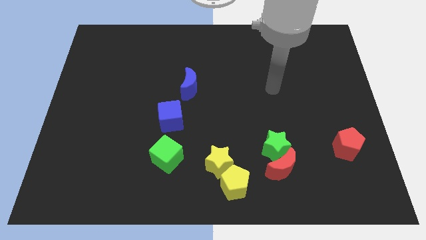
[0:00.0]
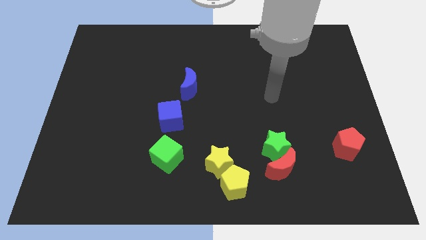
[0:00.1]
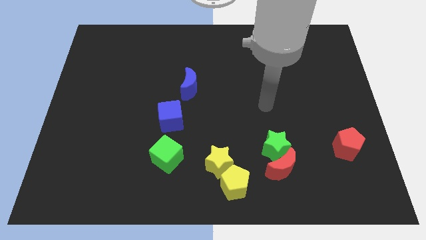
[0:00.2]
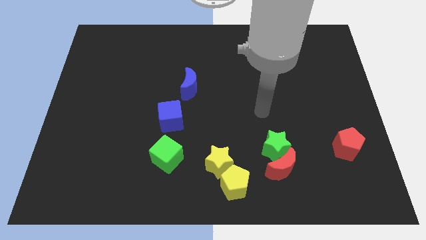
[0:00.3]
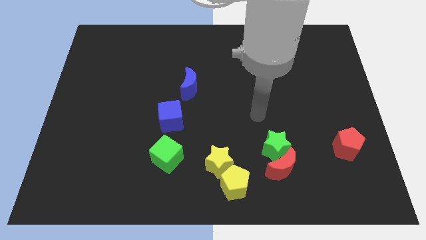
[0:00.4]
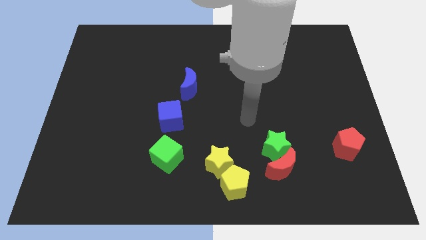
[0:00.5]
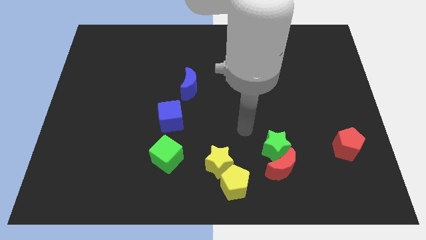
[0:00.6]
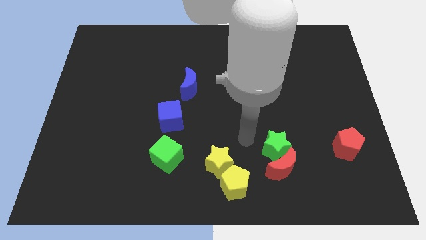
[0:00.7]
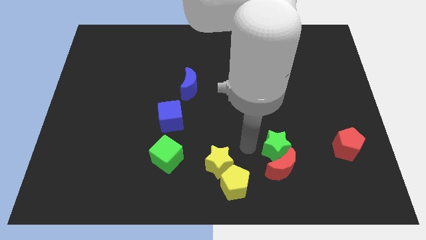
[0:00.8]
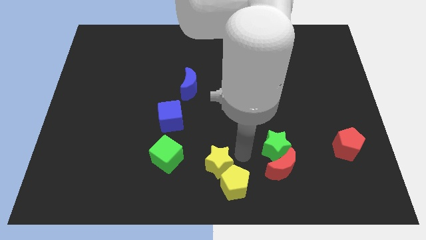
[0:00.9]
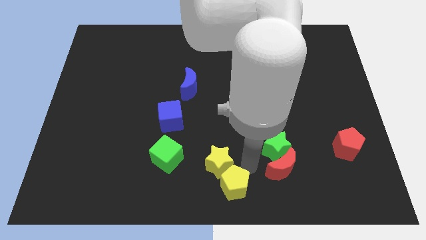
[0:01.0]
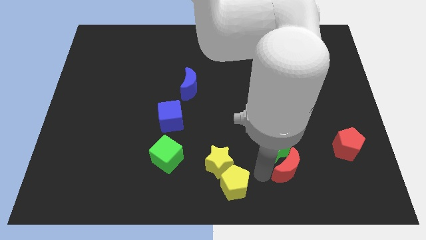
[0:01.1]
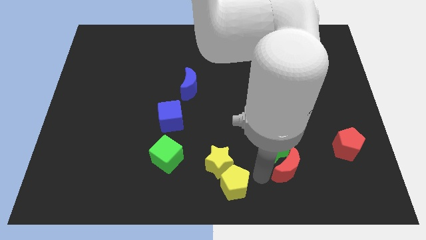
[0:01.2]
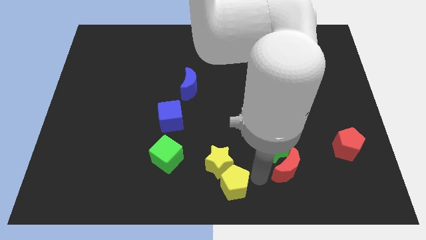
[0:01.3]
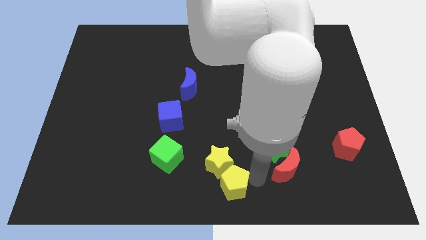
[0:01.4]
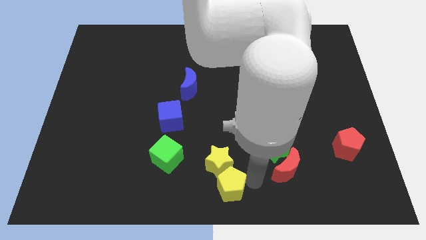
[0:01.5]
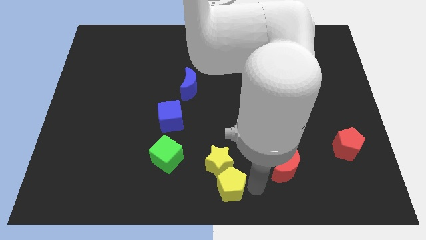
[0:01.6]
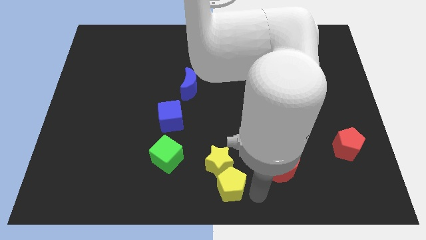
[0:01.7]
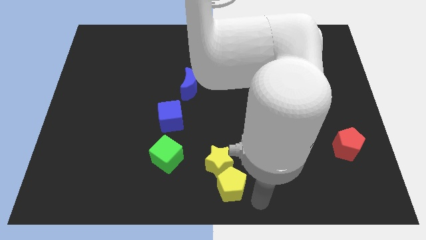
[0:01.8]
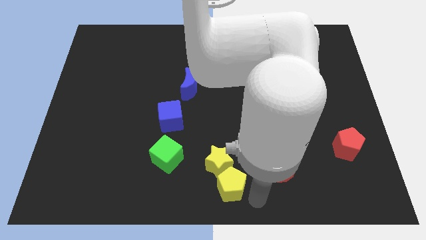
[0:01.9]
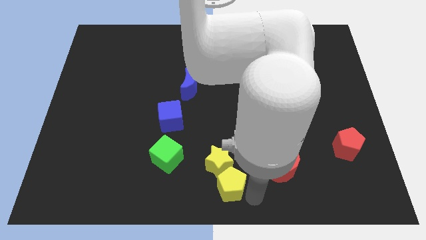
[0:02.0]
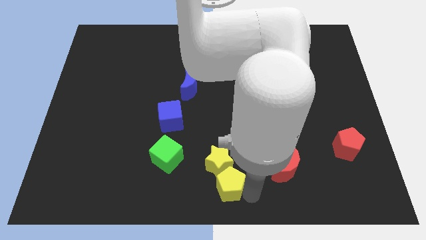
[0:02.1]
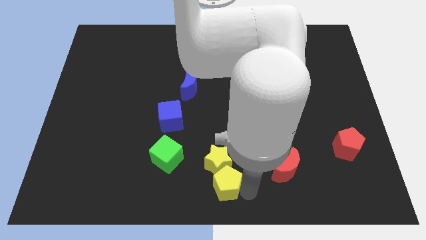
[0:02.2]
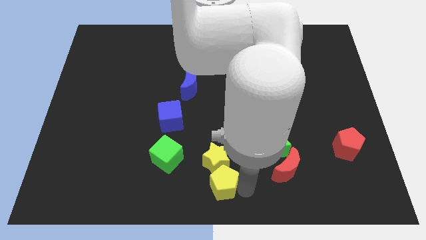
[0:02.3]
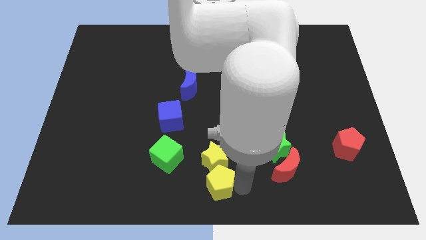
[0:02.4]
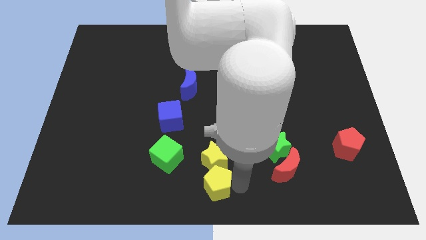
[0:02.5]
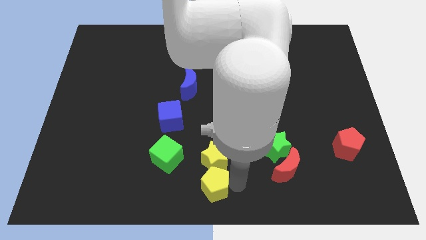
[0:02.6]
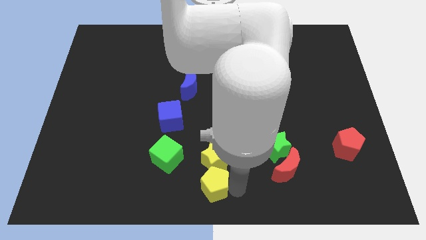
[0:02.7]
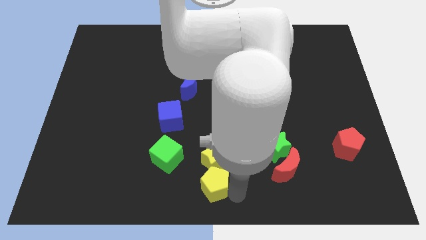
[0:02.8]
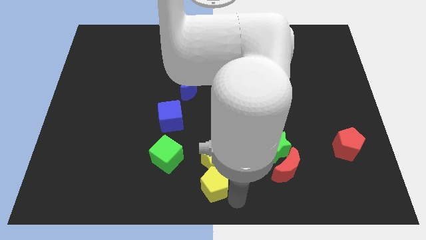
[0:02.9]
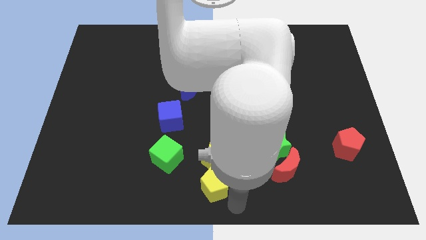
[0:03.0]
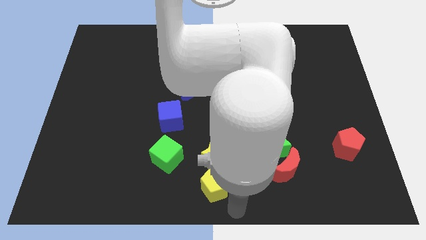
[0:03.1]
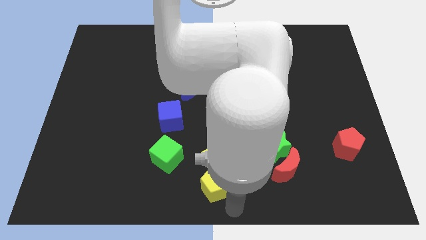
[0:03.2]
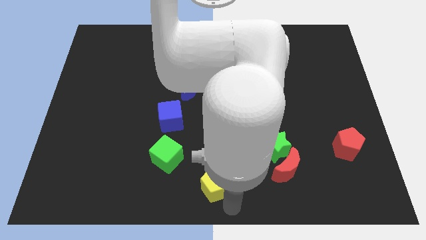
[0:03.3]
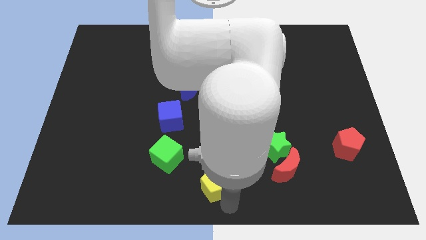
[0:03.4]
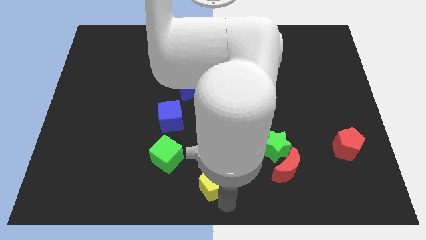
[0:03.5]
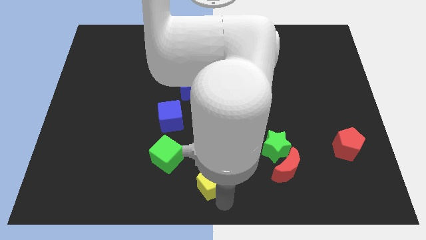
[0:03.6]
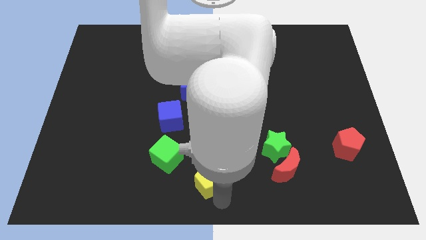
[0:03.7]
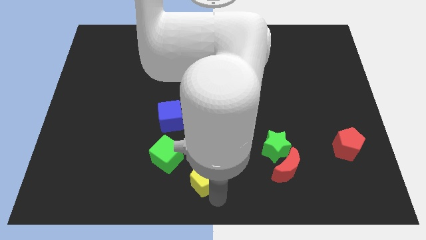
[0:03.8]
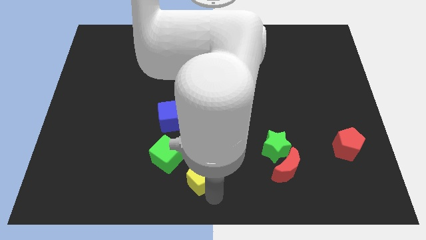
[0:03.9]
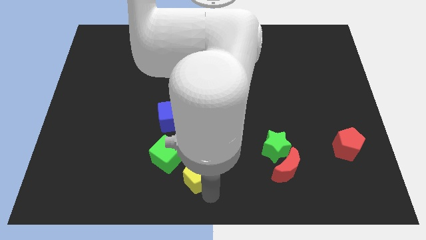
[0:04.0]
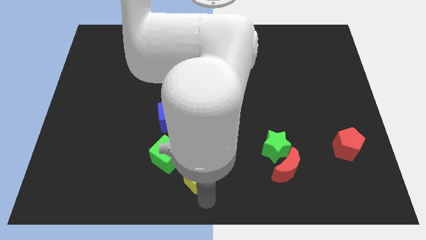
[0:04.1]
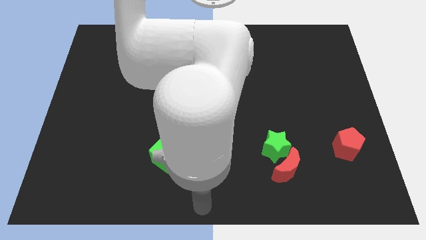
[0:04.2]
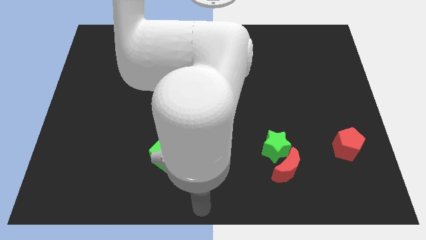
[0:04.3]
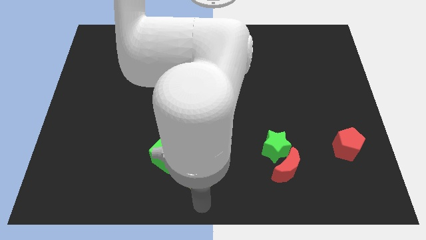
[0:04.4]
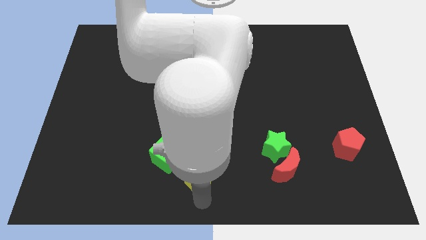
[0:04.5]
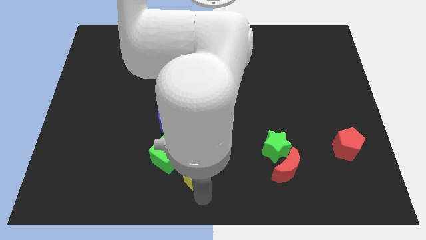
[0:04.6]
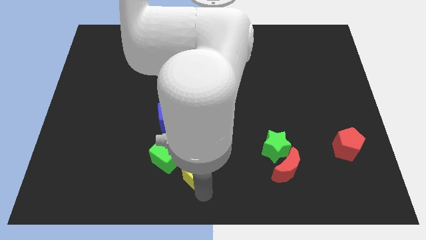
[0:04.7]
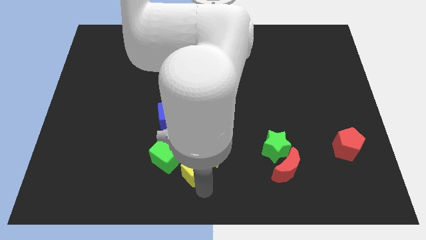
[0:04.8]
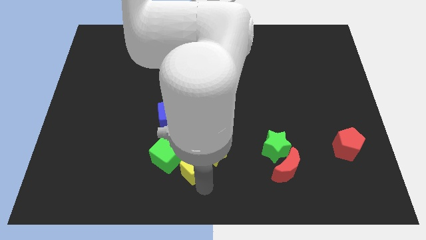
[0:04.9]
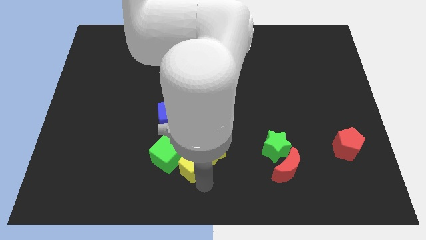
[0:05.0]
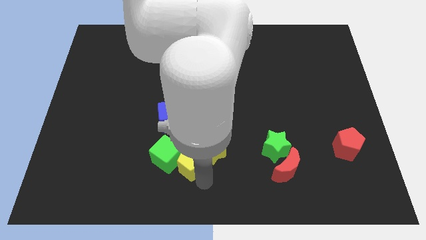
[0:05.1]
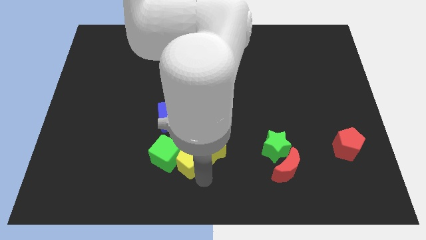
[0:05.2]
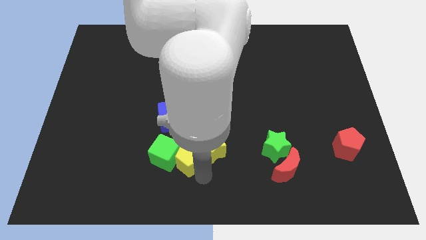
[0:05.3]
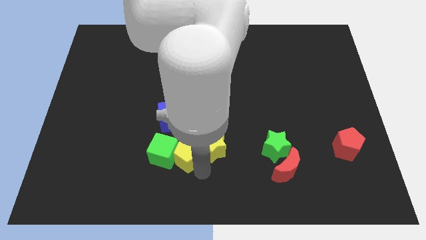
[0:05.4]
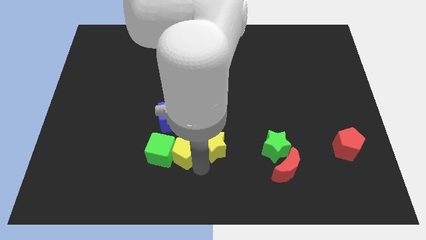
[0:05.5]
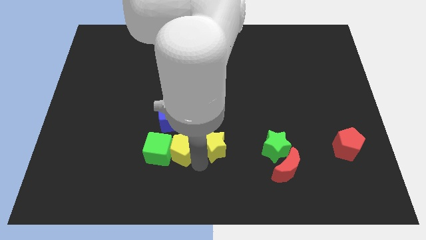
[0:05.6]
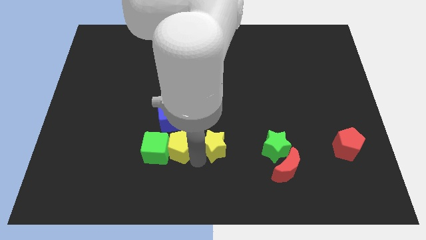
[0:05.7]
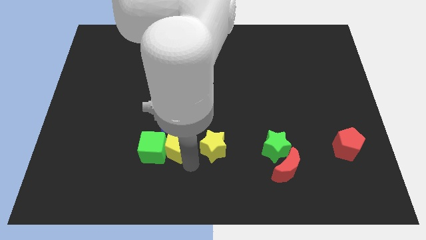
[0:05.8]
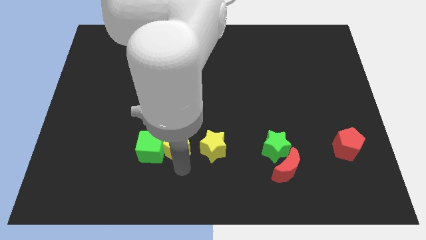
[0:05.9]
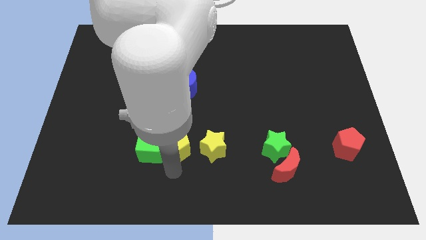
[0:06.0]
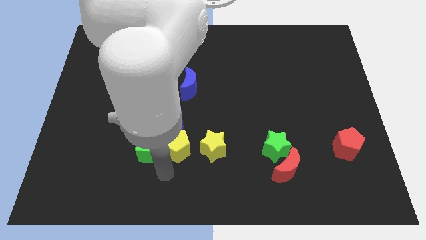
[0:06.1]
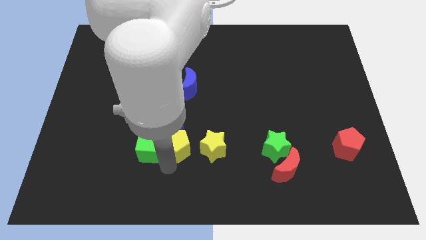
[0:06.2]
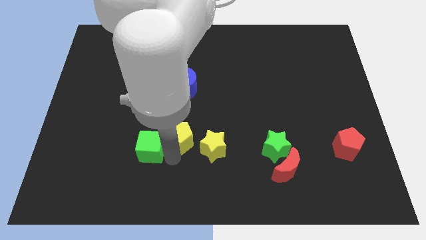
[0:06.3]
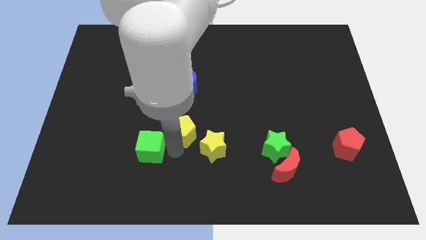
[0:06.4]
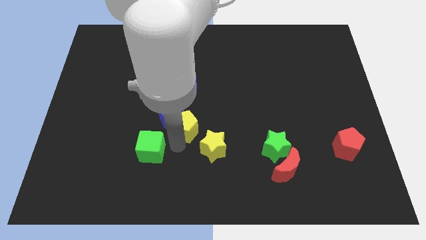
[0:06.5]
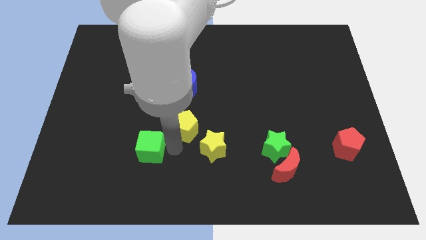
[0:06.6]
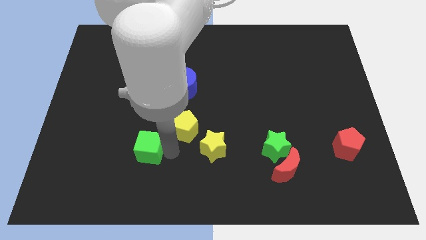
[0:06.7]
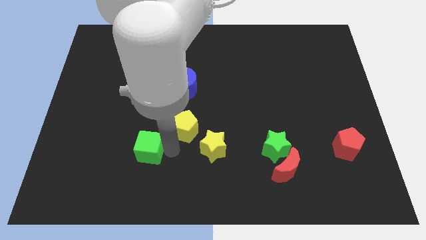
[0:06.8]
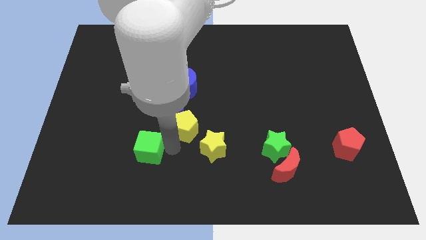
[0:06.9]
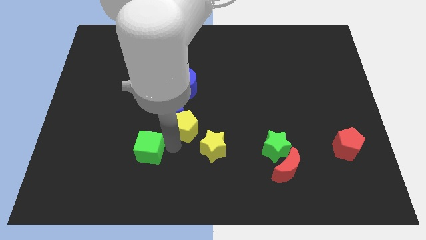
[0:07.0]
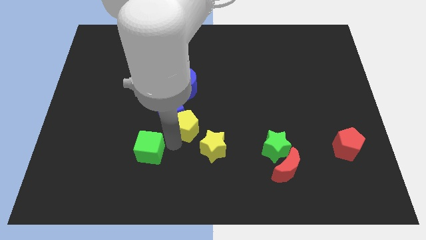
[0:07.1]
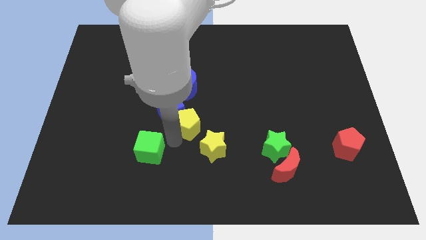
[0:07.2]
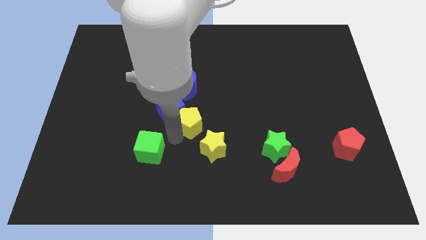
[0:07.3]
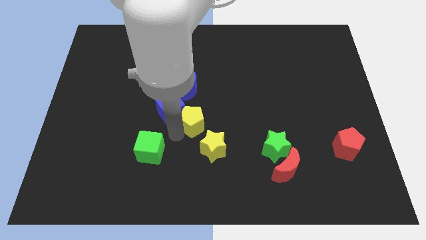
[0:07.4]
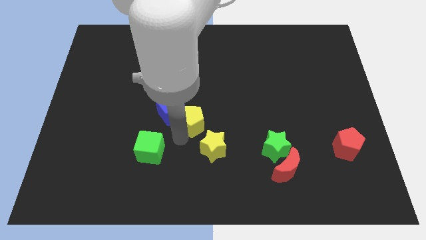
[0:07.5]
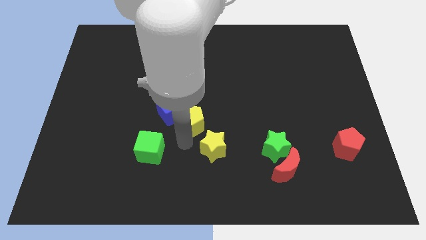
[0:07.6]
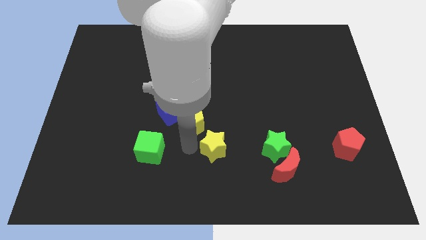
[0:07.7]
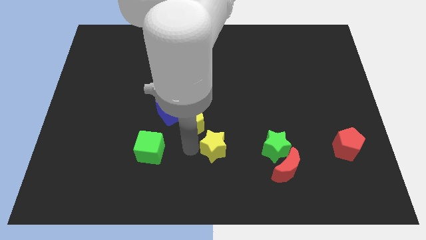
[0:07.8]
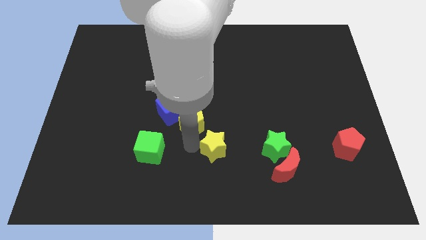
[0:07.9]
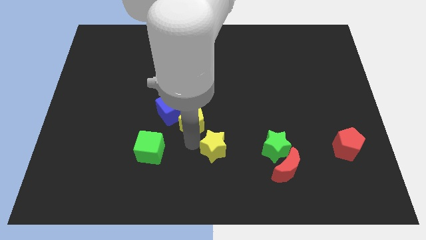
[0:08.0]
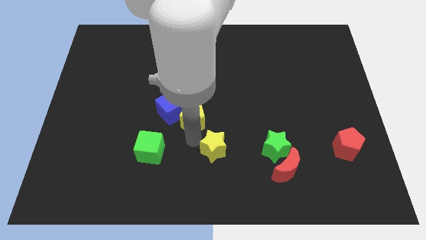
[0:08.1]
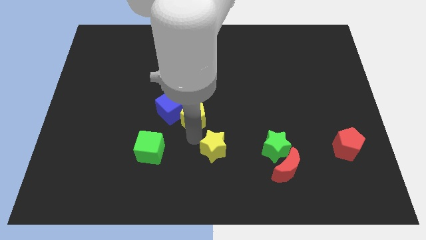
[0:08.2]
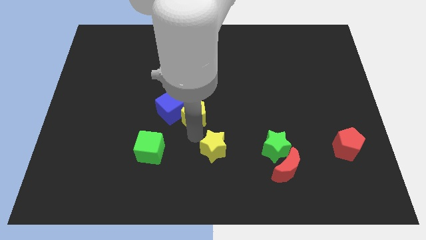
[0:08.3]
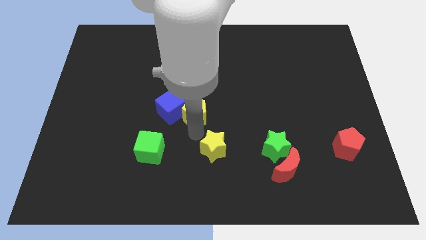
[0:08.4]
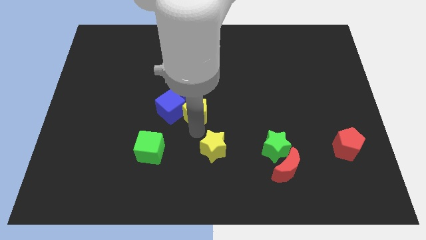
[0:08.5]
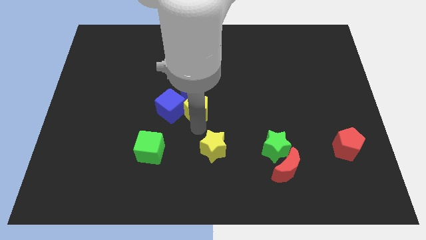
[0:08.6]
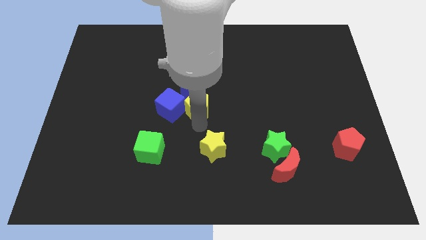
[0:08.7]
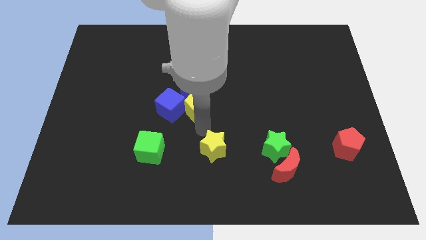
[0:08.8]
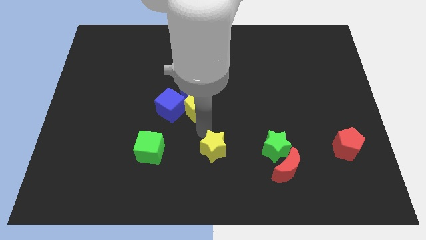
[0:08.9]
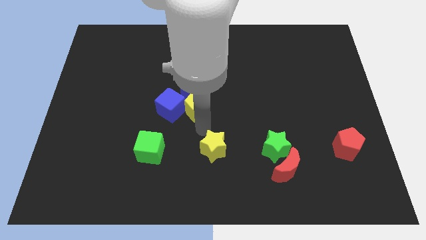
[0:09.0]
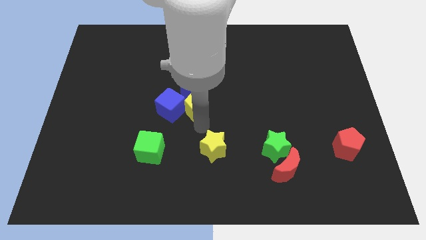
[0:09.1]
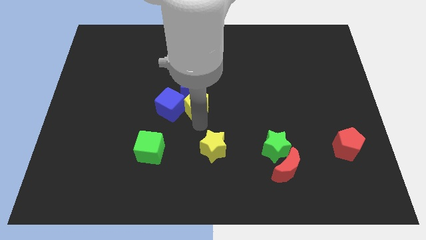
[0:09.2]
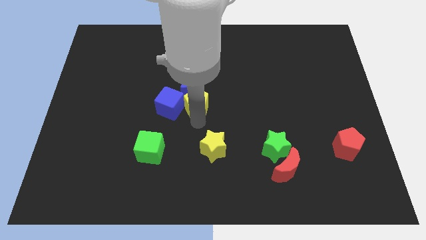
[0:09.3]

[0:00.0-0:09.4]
slide the yellow pentagon close to the blue moon
